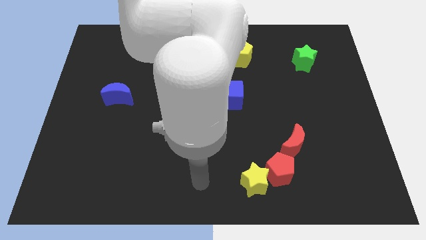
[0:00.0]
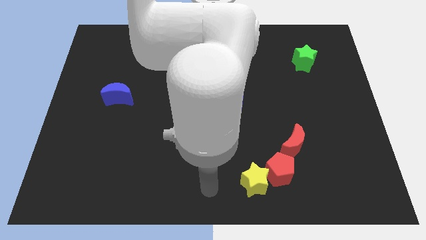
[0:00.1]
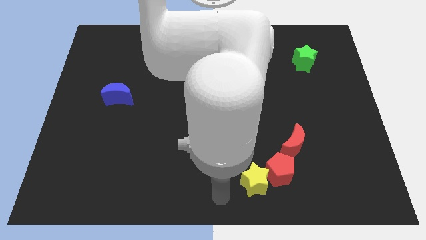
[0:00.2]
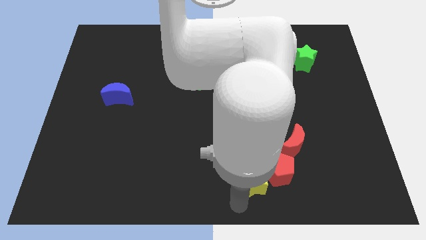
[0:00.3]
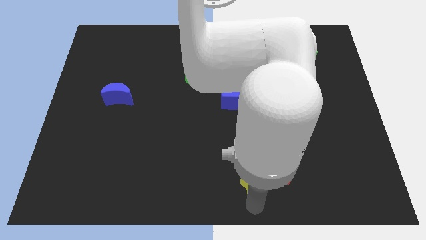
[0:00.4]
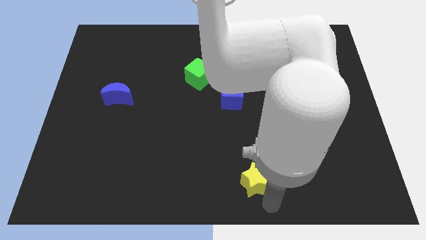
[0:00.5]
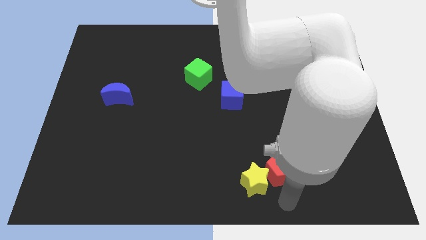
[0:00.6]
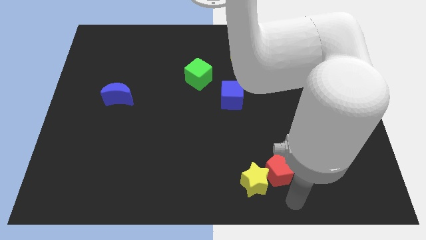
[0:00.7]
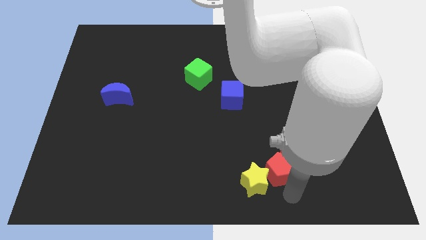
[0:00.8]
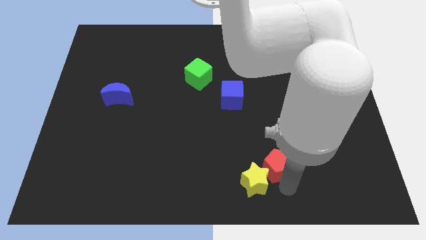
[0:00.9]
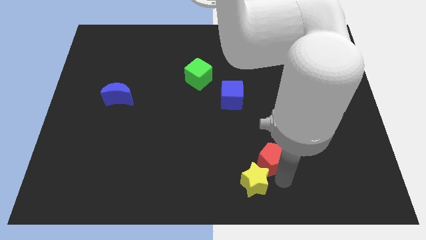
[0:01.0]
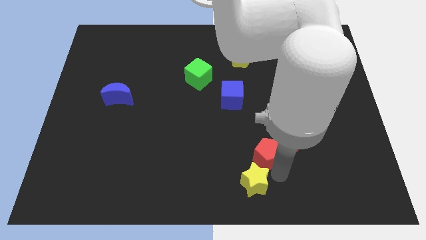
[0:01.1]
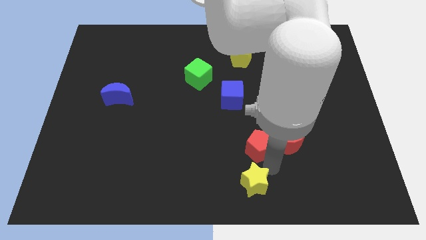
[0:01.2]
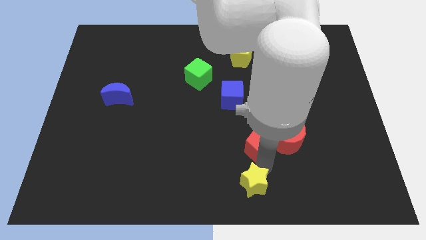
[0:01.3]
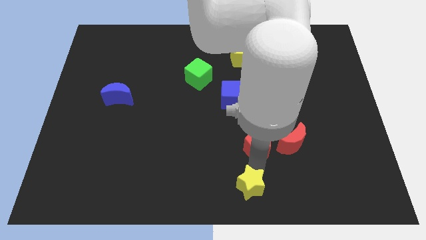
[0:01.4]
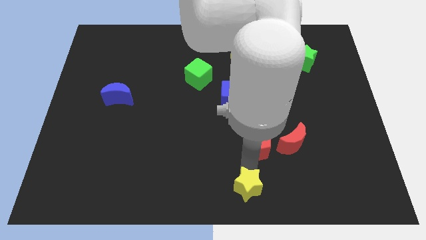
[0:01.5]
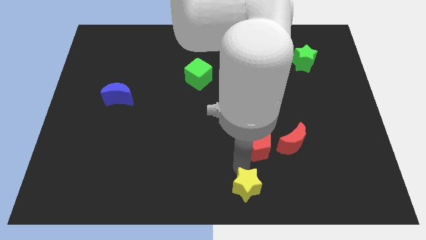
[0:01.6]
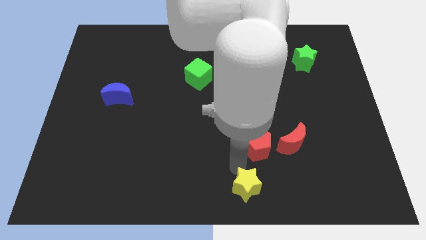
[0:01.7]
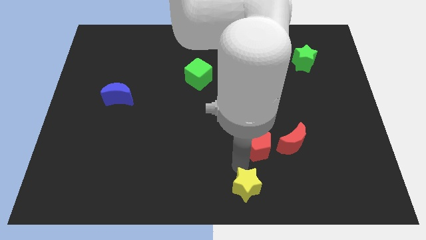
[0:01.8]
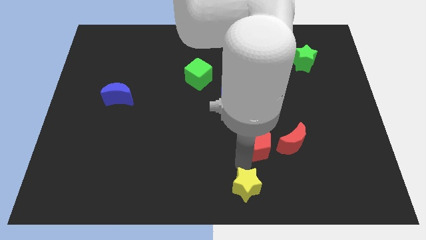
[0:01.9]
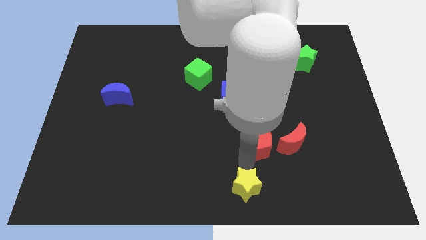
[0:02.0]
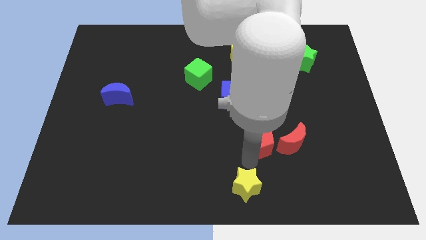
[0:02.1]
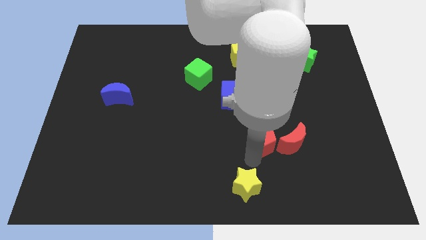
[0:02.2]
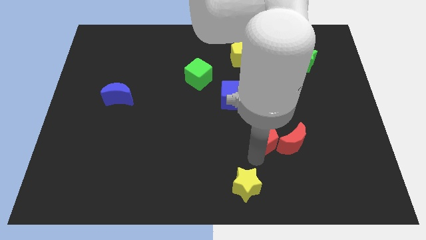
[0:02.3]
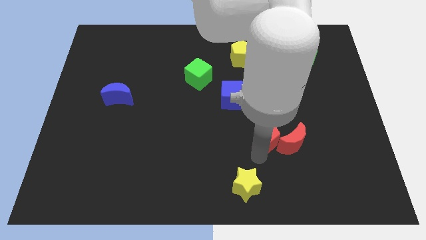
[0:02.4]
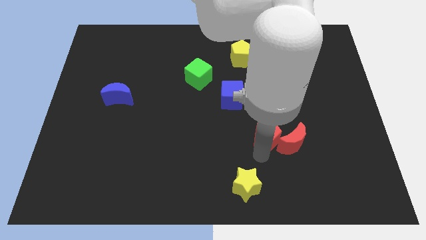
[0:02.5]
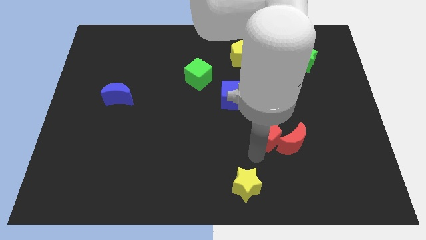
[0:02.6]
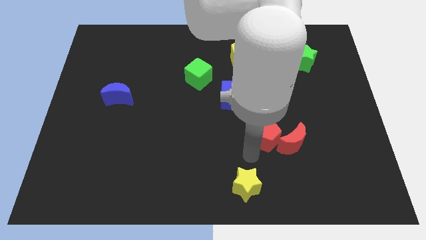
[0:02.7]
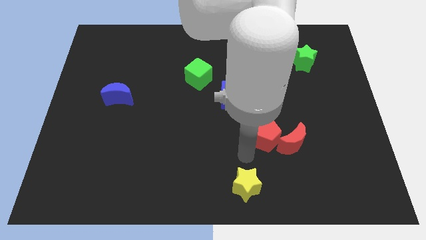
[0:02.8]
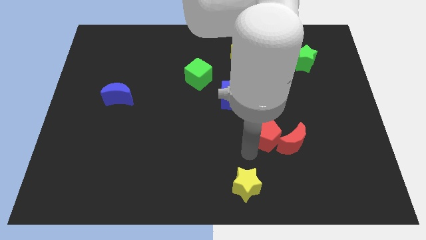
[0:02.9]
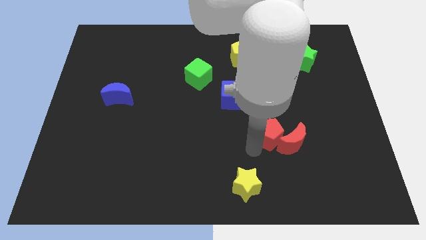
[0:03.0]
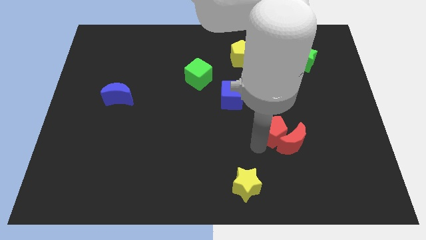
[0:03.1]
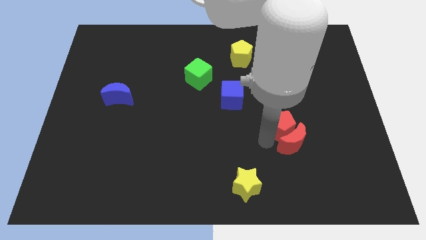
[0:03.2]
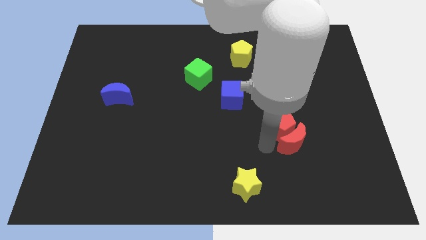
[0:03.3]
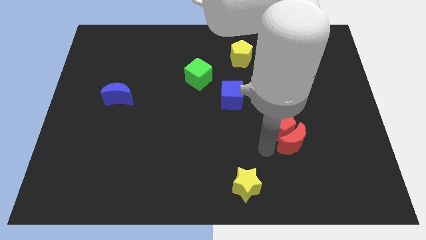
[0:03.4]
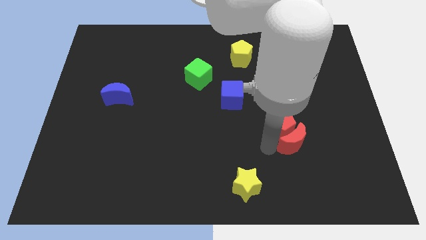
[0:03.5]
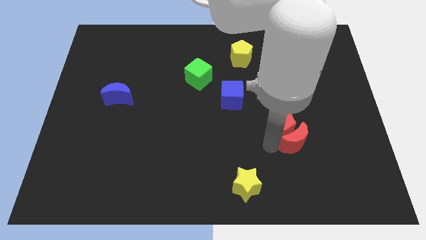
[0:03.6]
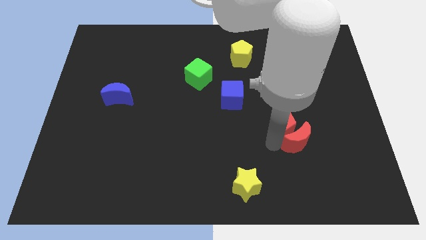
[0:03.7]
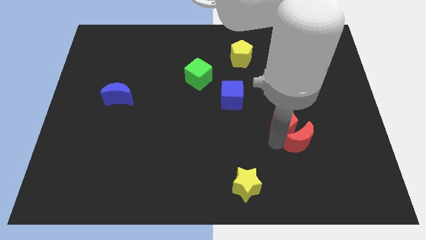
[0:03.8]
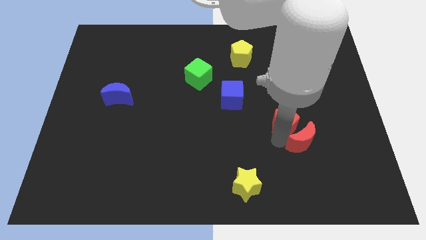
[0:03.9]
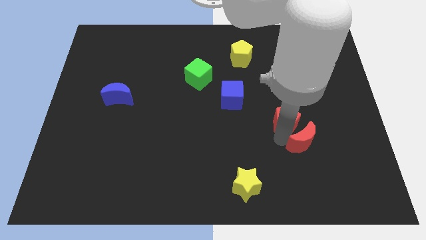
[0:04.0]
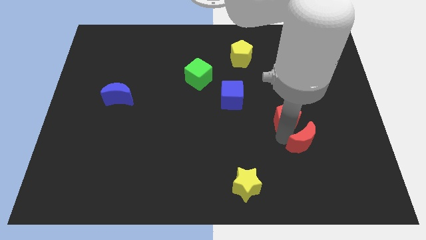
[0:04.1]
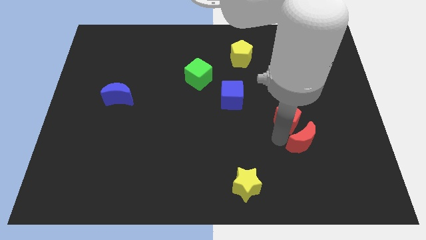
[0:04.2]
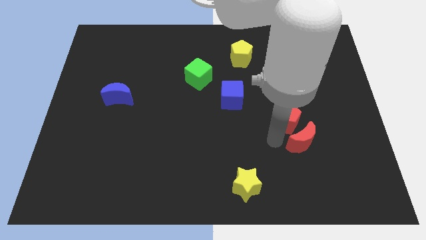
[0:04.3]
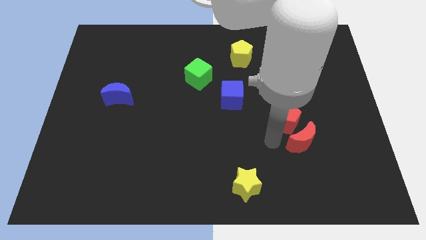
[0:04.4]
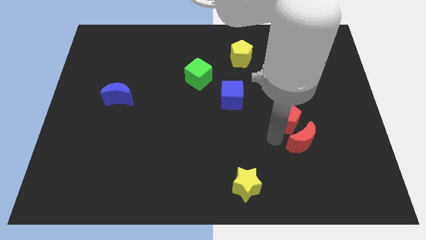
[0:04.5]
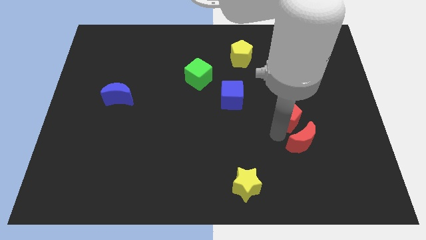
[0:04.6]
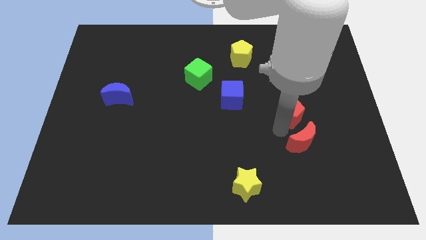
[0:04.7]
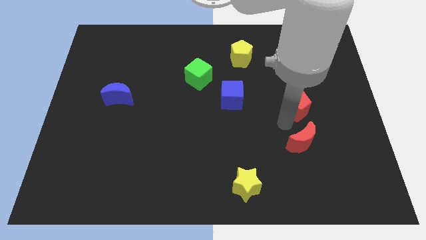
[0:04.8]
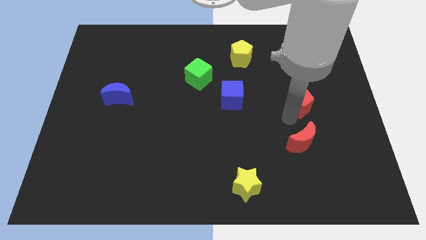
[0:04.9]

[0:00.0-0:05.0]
push the red pentagon to the bottom of the green star

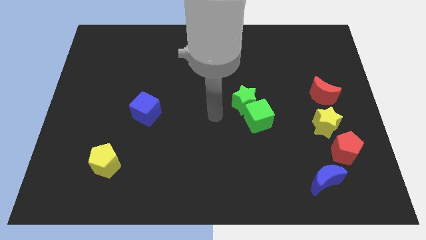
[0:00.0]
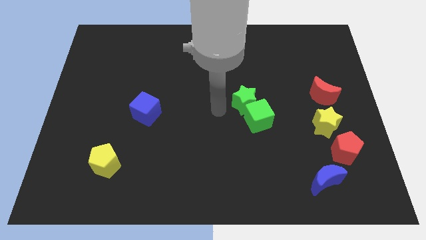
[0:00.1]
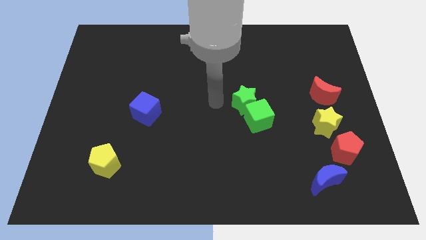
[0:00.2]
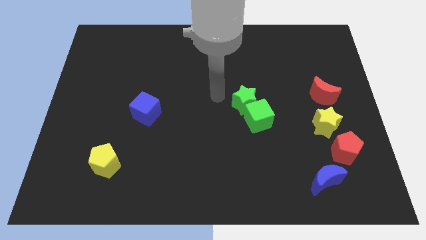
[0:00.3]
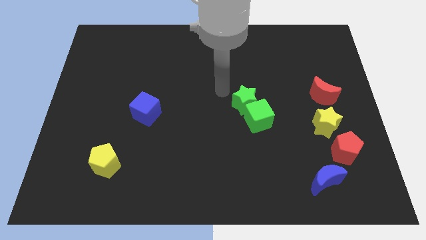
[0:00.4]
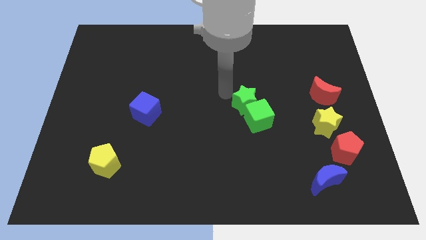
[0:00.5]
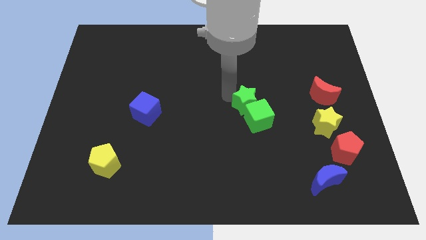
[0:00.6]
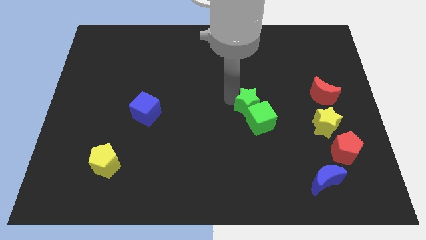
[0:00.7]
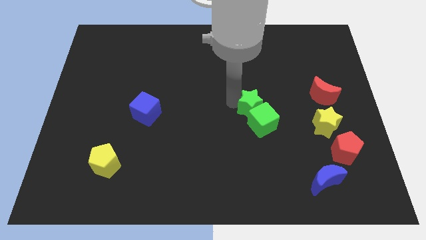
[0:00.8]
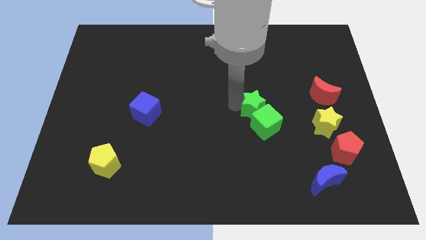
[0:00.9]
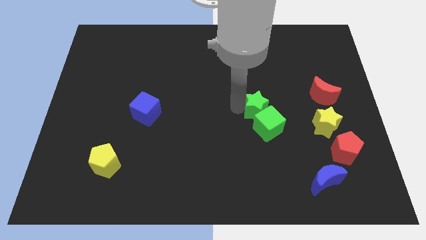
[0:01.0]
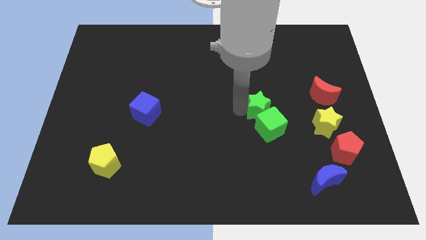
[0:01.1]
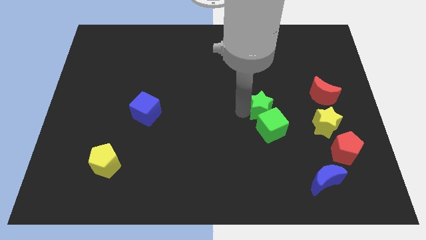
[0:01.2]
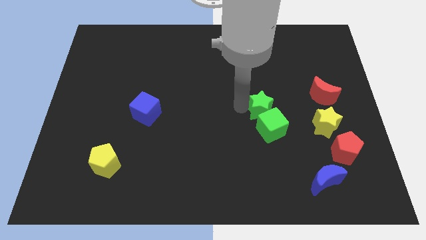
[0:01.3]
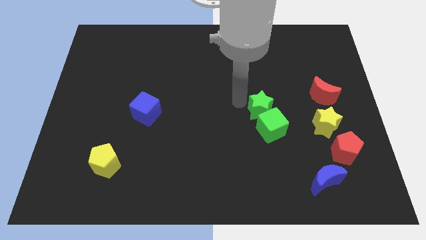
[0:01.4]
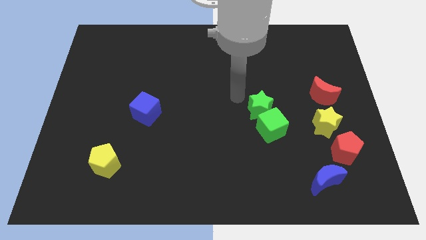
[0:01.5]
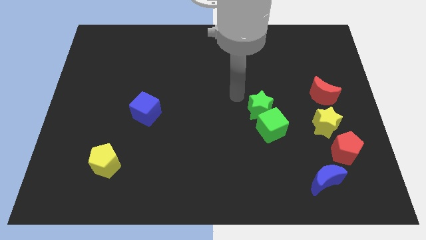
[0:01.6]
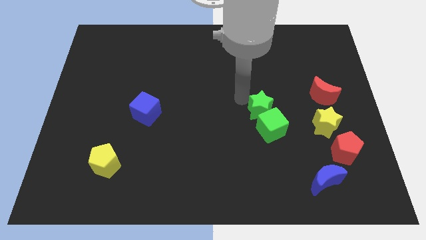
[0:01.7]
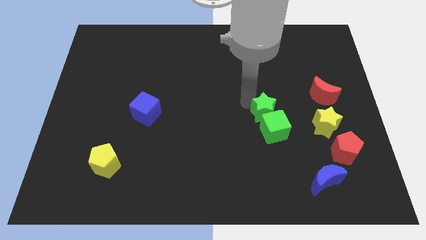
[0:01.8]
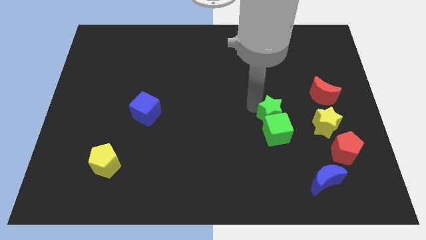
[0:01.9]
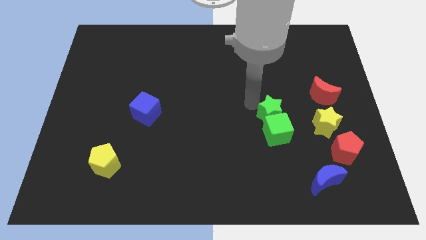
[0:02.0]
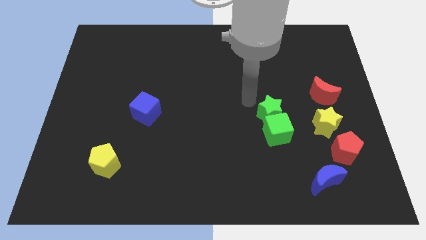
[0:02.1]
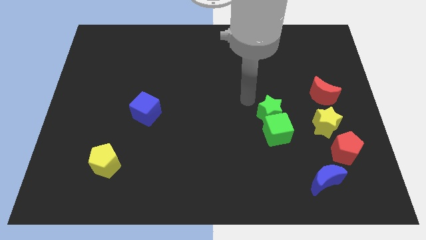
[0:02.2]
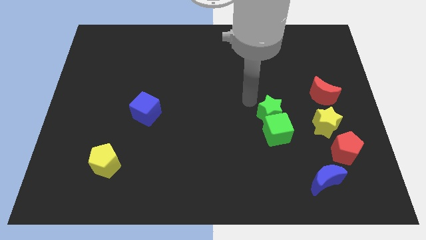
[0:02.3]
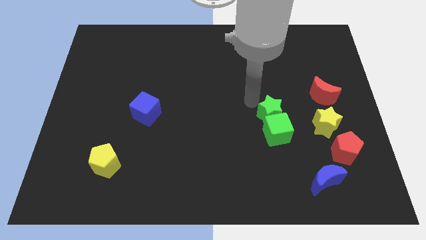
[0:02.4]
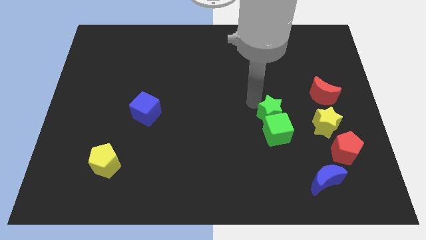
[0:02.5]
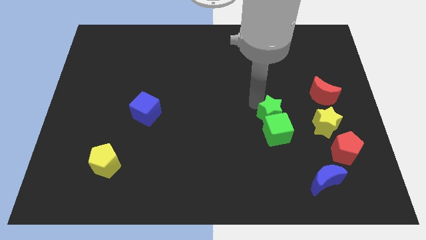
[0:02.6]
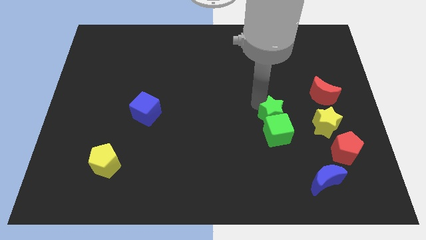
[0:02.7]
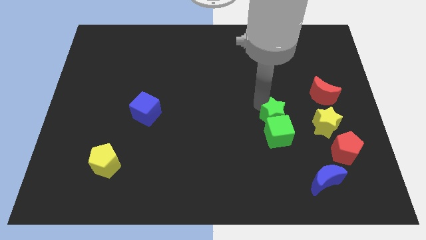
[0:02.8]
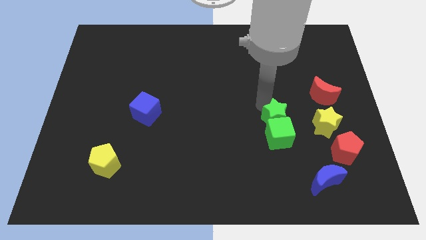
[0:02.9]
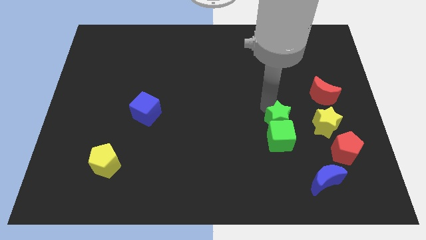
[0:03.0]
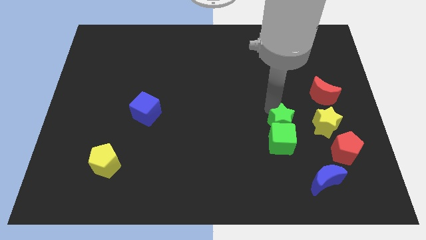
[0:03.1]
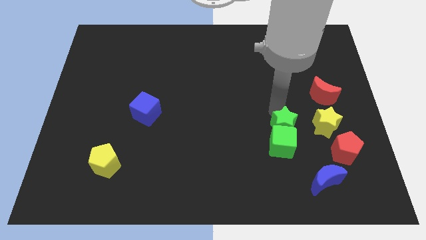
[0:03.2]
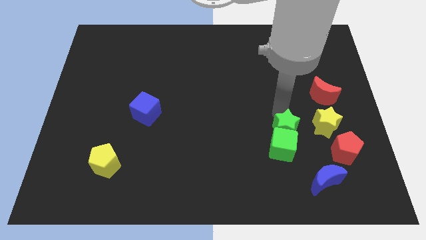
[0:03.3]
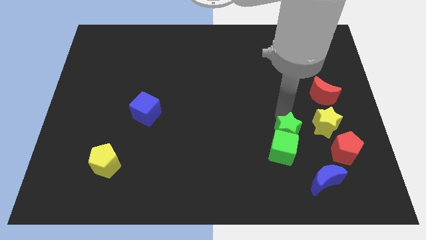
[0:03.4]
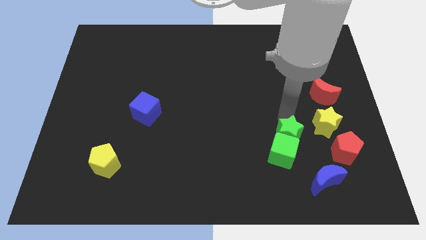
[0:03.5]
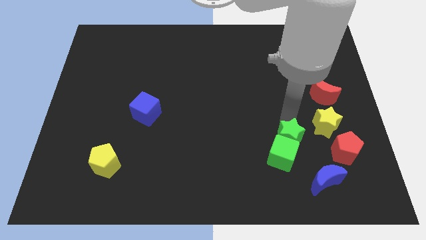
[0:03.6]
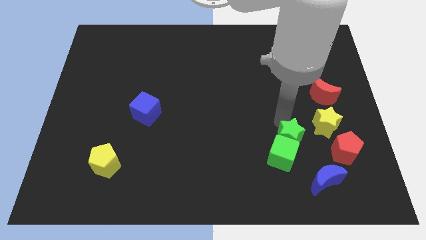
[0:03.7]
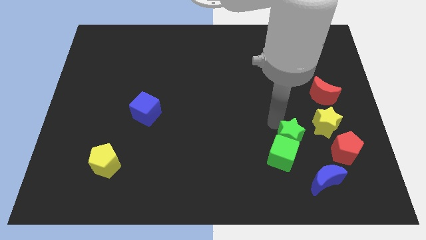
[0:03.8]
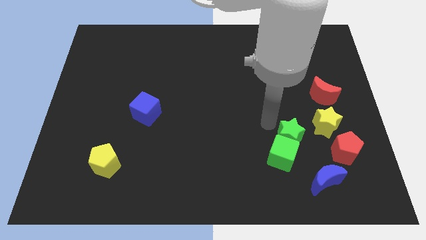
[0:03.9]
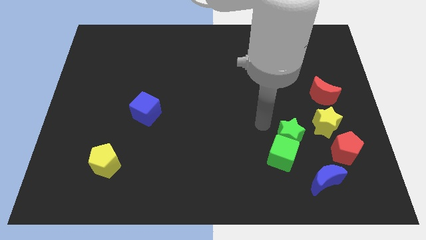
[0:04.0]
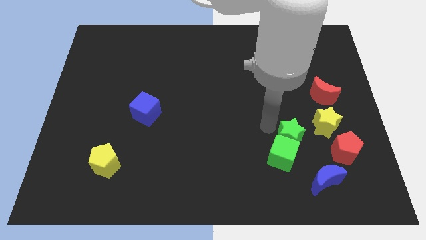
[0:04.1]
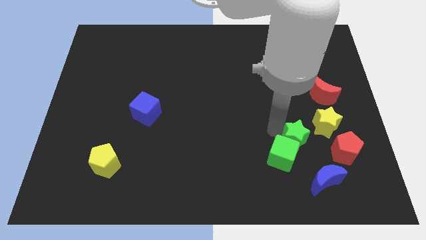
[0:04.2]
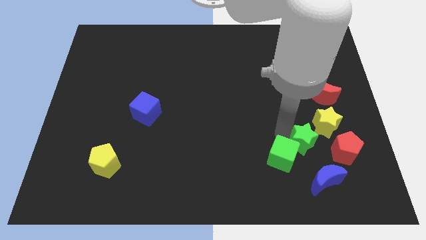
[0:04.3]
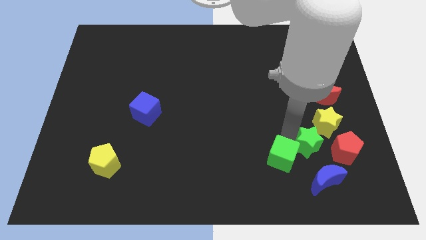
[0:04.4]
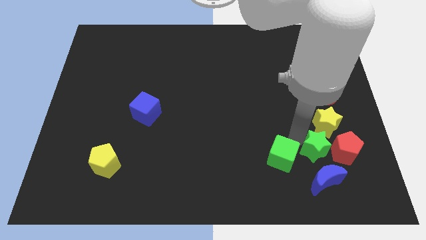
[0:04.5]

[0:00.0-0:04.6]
put the green star to the bottom side of the yellow star
